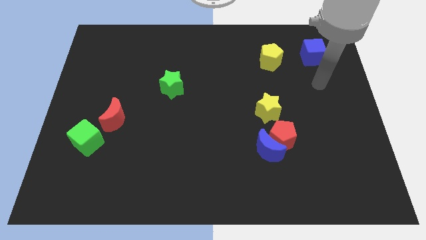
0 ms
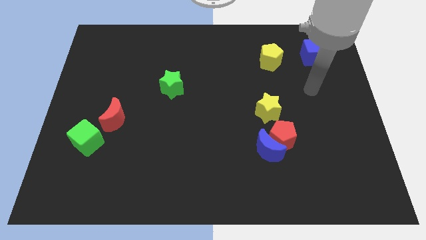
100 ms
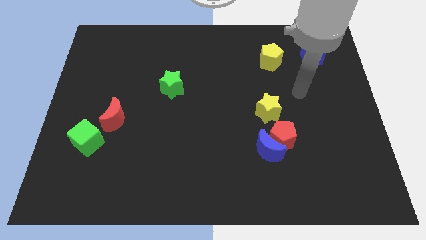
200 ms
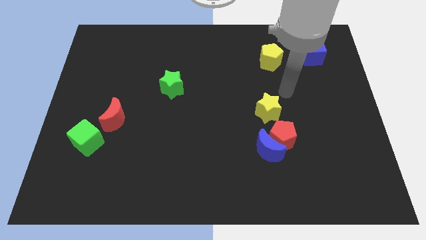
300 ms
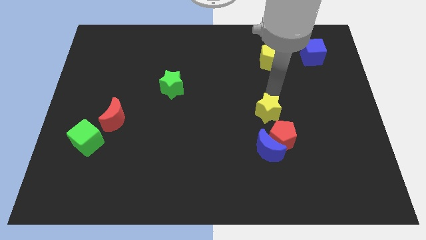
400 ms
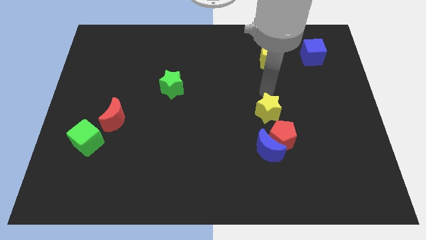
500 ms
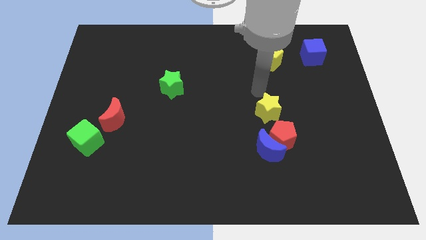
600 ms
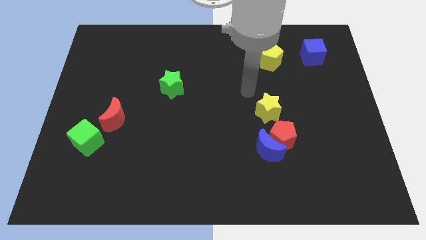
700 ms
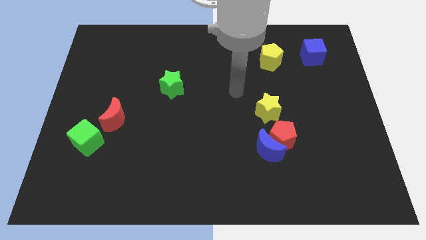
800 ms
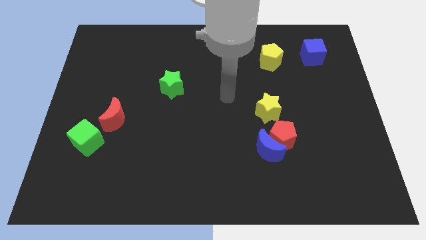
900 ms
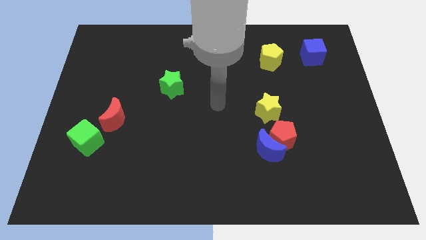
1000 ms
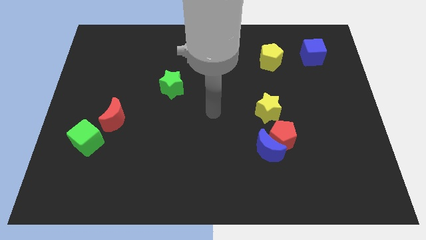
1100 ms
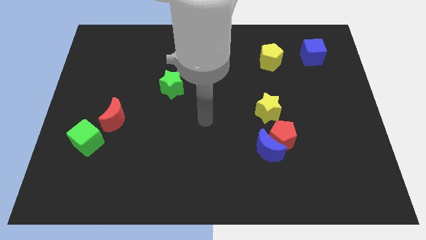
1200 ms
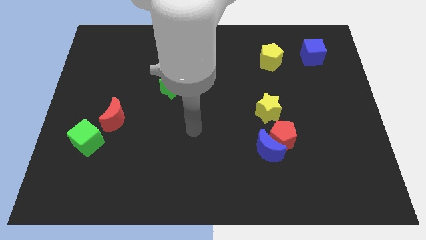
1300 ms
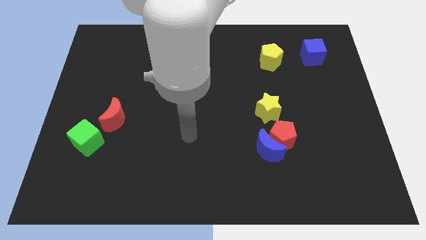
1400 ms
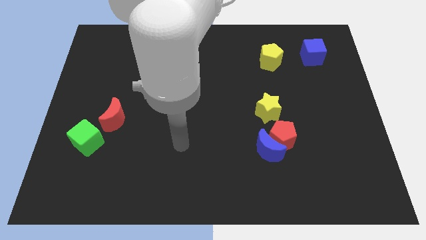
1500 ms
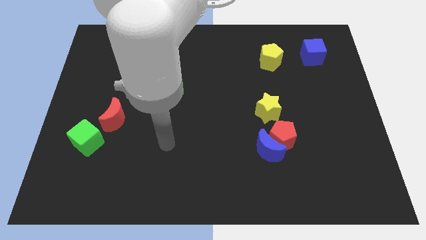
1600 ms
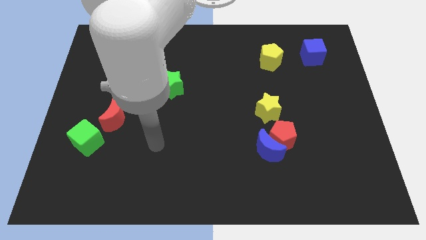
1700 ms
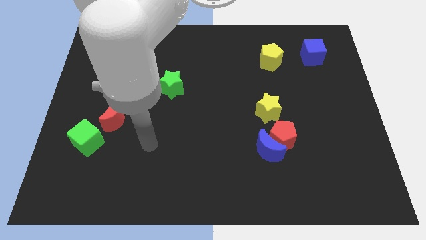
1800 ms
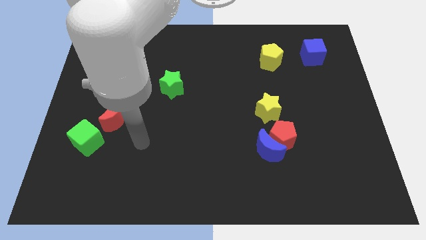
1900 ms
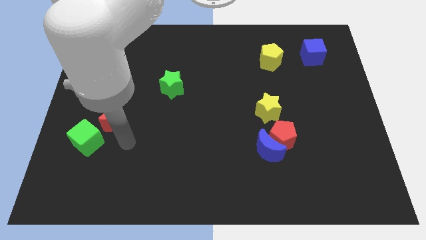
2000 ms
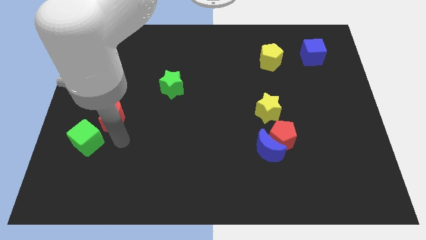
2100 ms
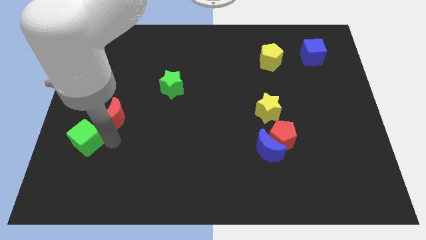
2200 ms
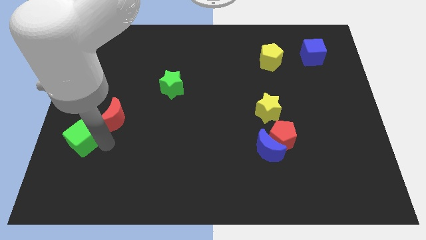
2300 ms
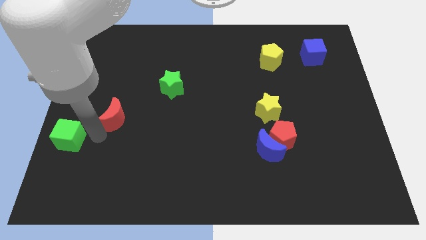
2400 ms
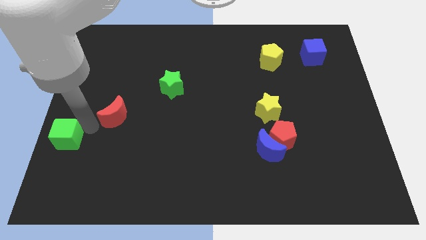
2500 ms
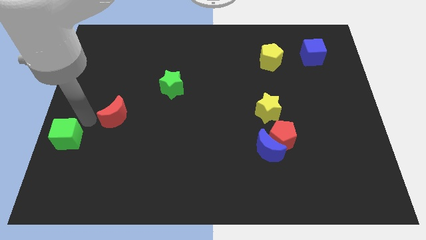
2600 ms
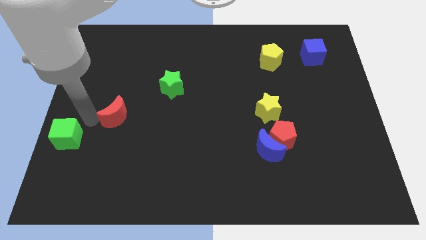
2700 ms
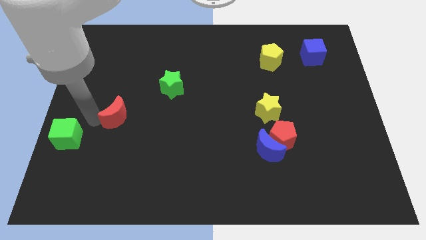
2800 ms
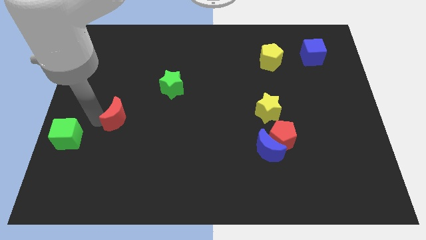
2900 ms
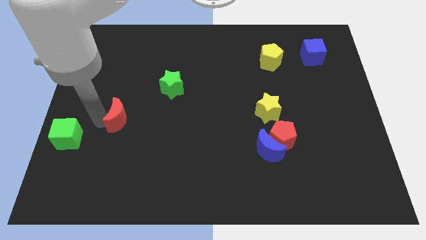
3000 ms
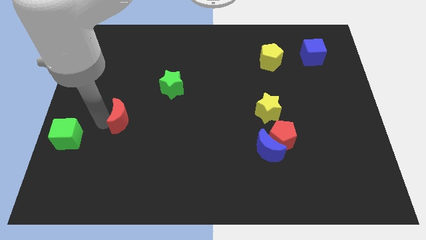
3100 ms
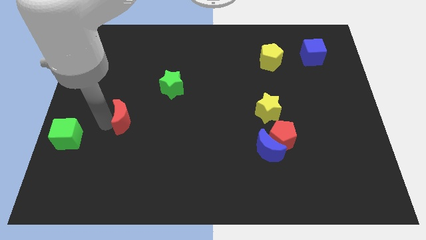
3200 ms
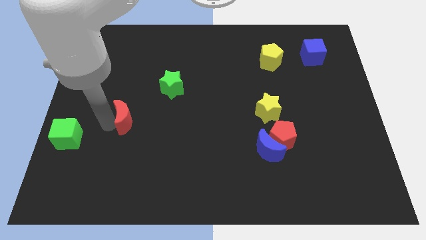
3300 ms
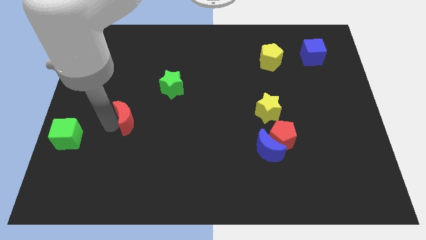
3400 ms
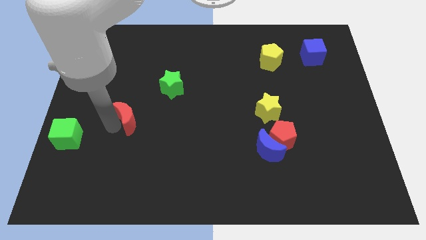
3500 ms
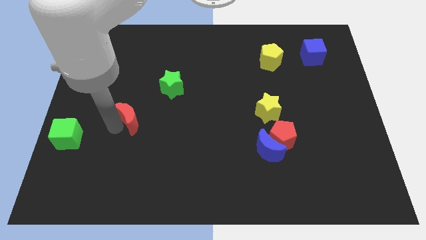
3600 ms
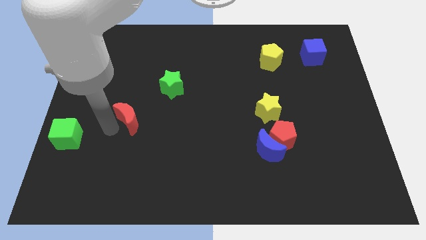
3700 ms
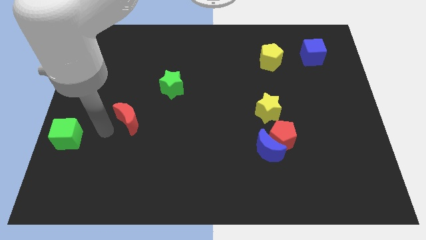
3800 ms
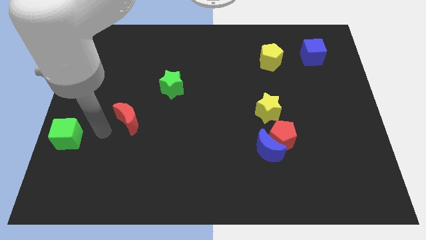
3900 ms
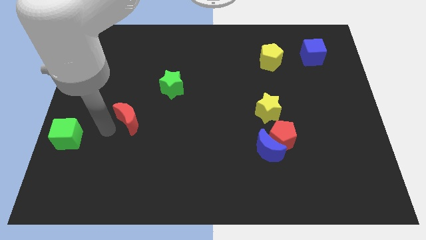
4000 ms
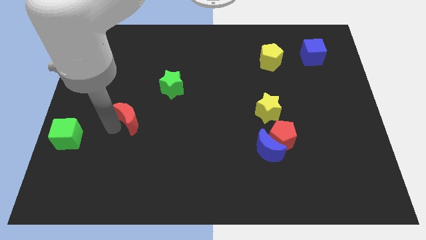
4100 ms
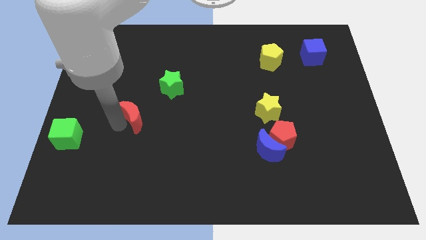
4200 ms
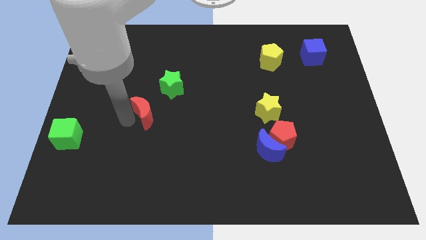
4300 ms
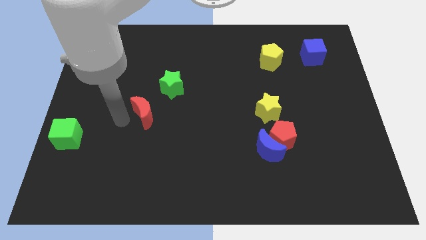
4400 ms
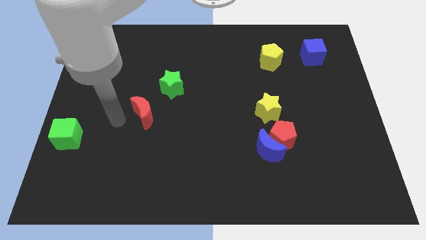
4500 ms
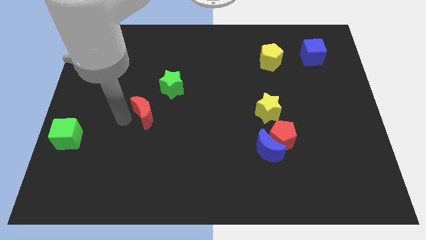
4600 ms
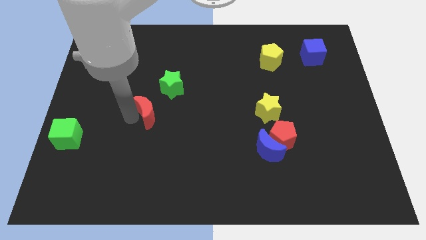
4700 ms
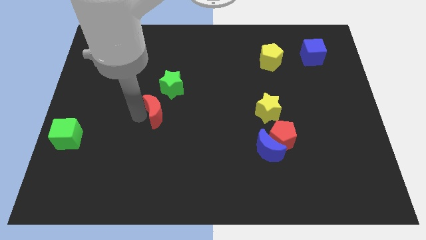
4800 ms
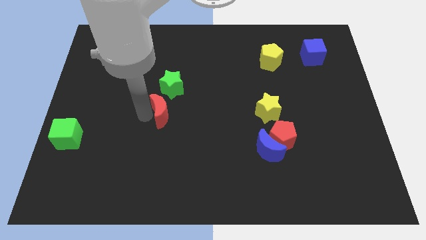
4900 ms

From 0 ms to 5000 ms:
put the red moon to the middle of the board

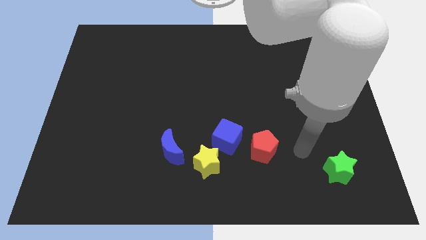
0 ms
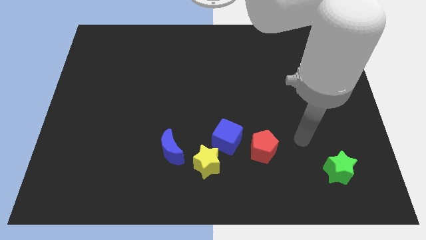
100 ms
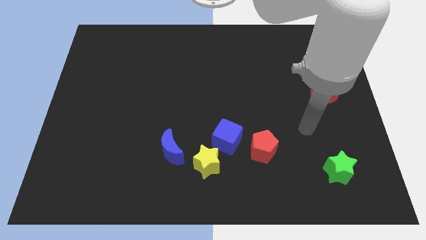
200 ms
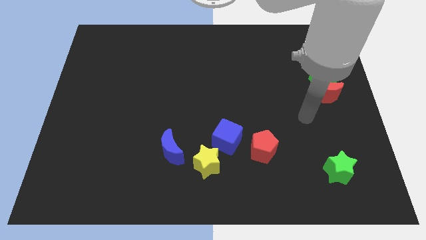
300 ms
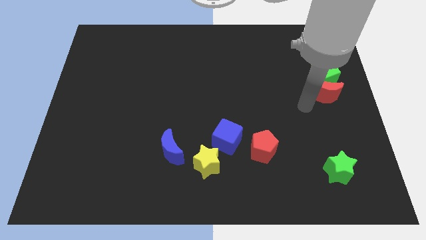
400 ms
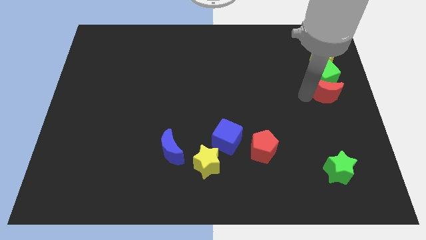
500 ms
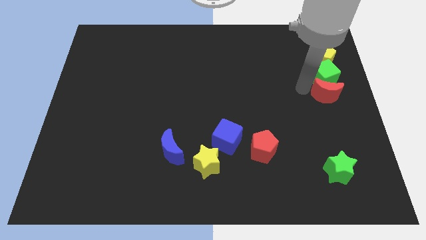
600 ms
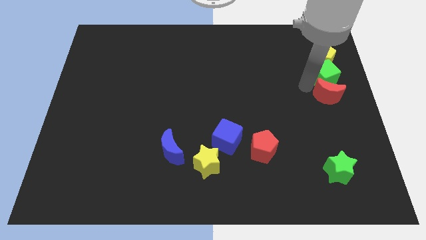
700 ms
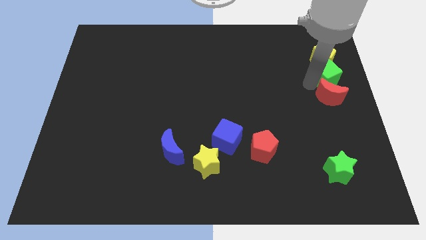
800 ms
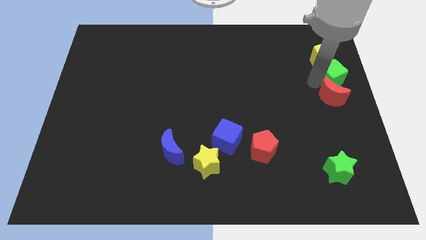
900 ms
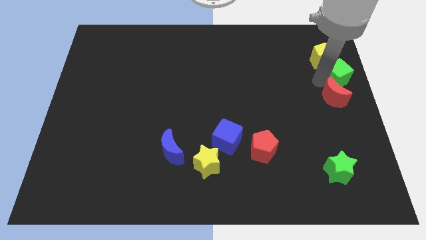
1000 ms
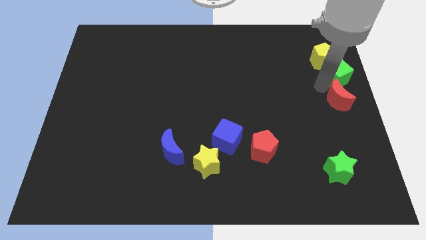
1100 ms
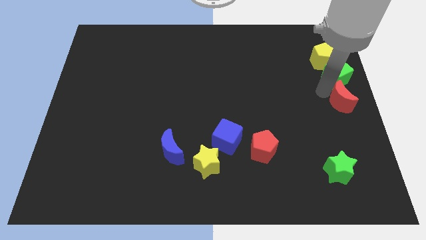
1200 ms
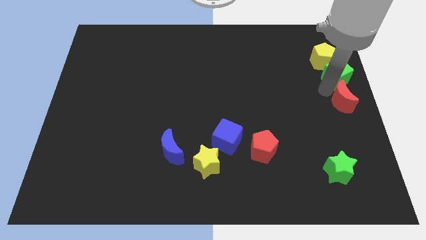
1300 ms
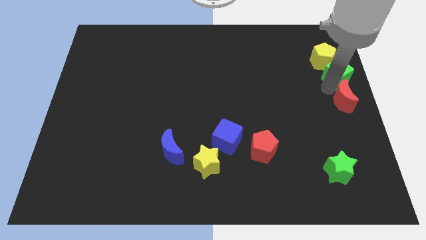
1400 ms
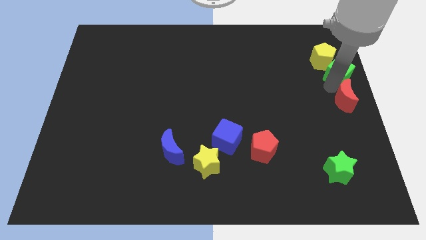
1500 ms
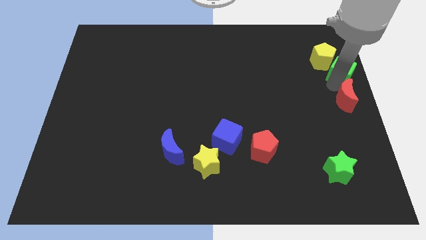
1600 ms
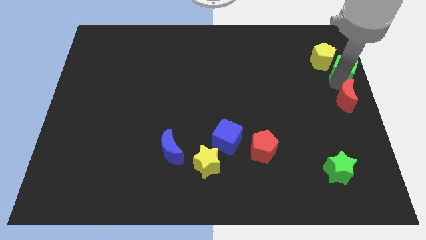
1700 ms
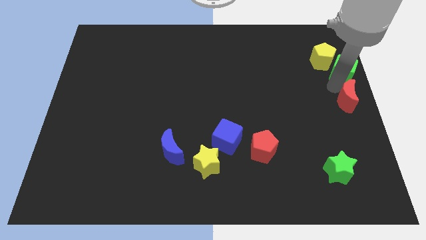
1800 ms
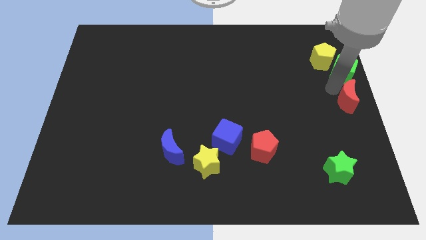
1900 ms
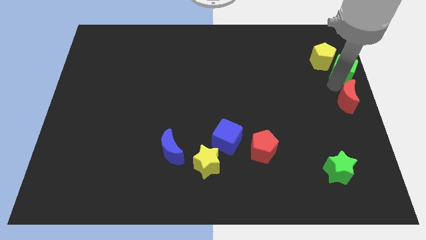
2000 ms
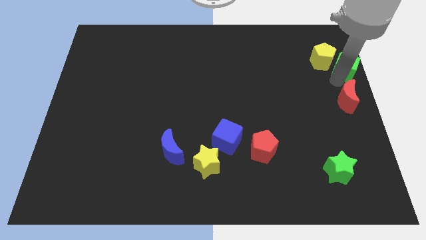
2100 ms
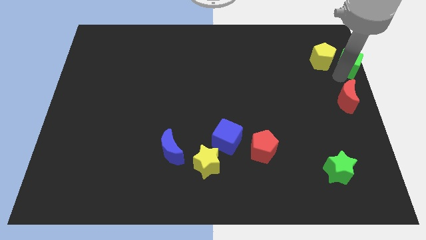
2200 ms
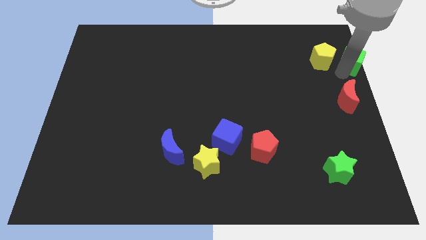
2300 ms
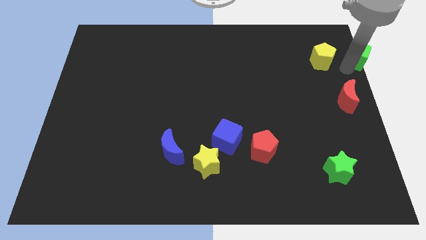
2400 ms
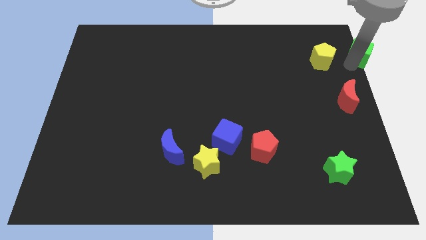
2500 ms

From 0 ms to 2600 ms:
slide the green cube to the upper right corner
